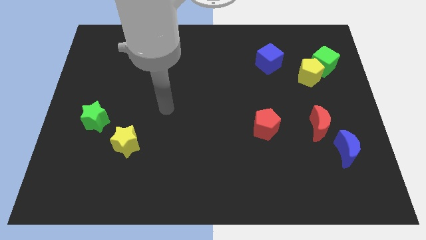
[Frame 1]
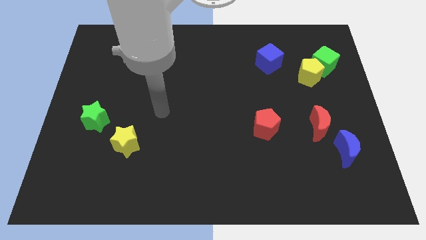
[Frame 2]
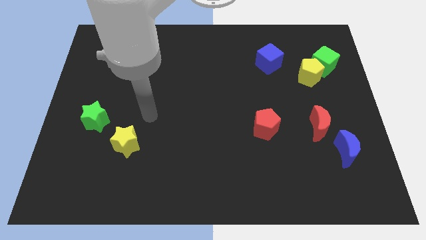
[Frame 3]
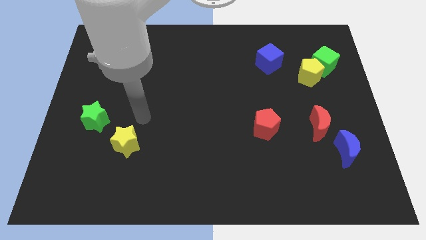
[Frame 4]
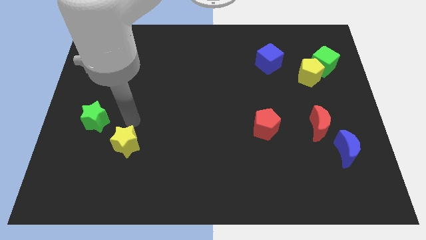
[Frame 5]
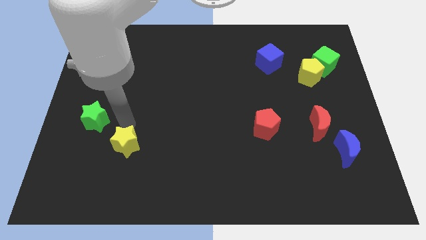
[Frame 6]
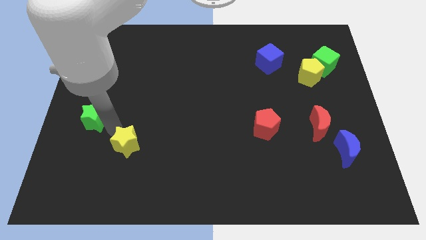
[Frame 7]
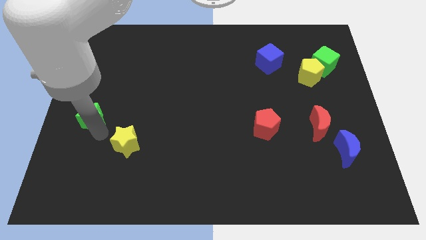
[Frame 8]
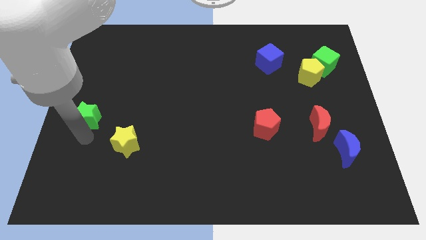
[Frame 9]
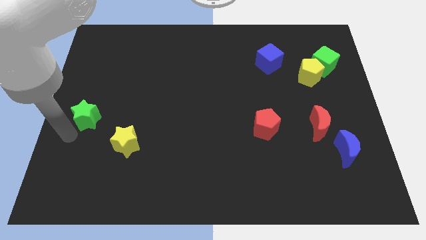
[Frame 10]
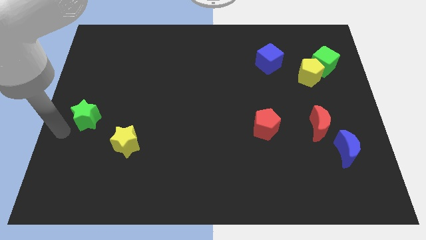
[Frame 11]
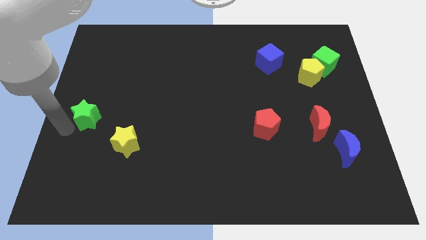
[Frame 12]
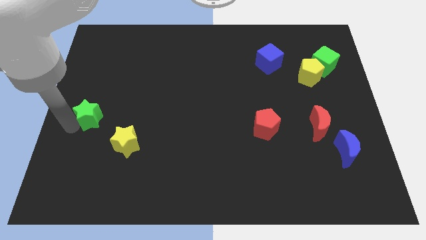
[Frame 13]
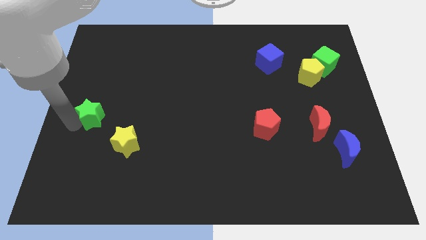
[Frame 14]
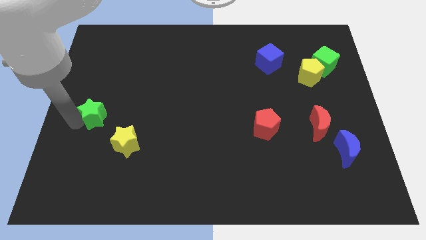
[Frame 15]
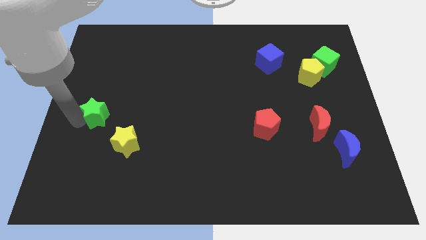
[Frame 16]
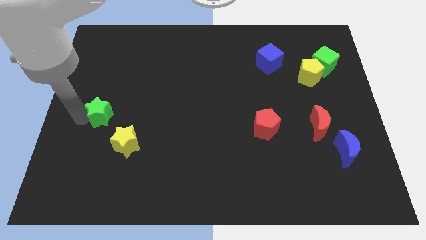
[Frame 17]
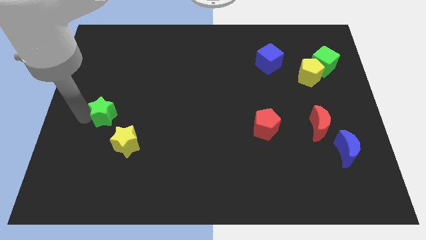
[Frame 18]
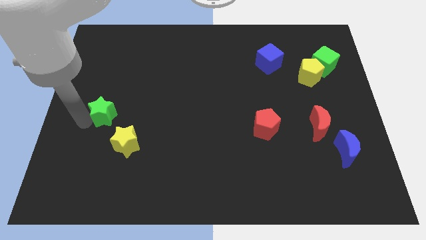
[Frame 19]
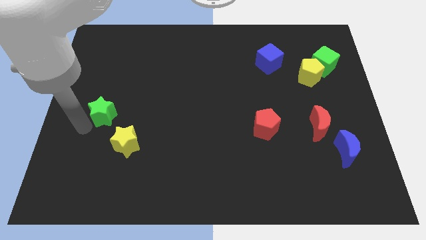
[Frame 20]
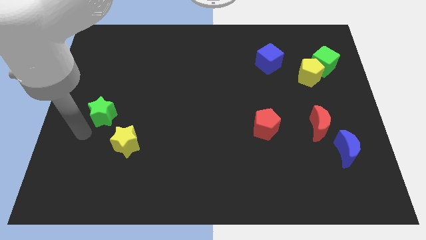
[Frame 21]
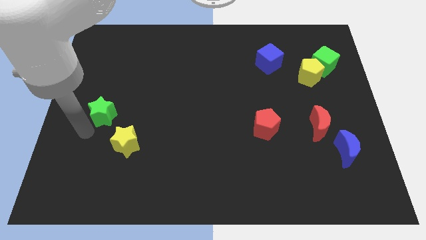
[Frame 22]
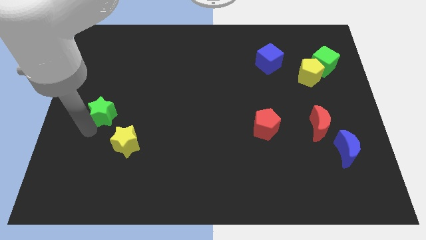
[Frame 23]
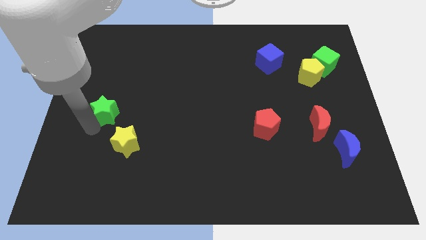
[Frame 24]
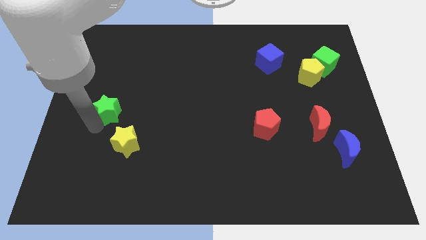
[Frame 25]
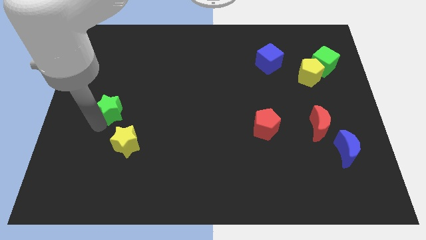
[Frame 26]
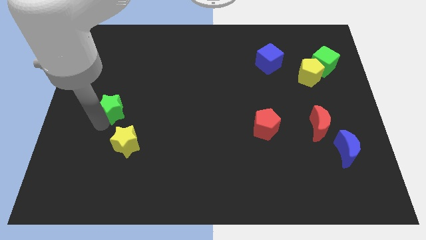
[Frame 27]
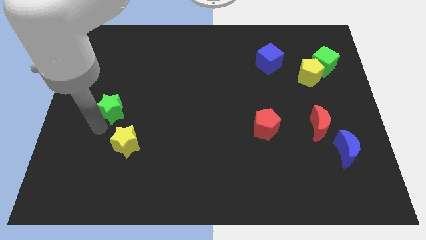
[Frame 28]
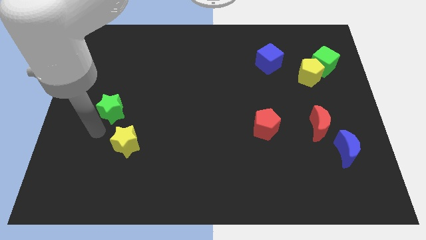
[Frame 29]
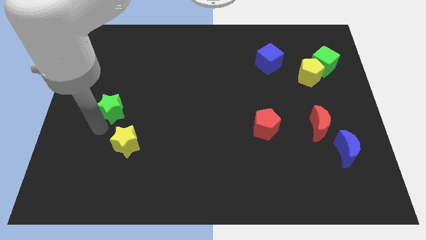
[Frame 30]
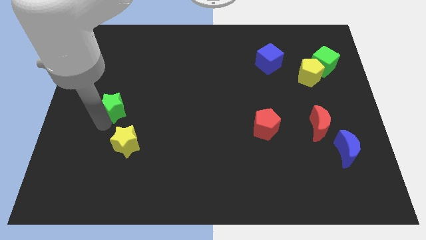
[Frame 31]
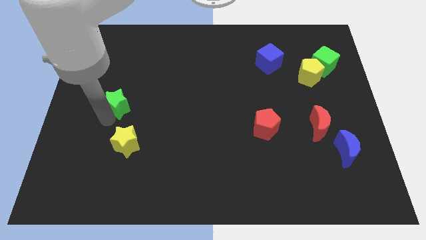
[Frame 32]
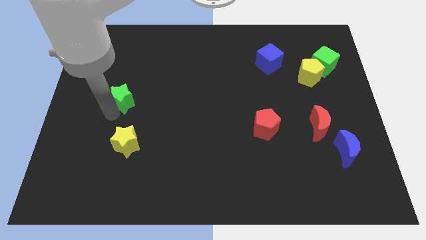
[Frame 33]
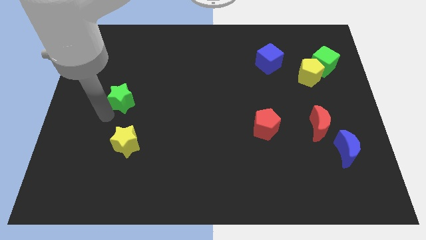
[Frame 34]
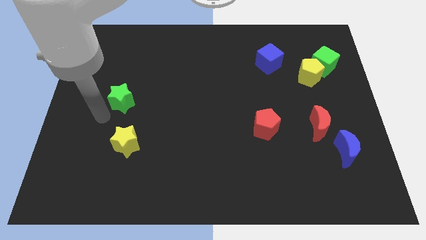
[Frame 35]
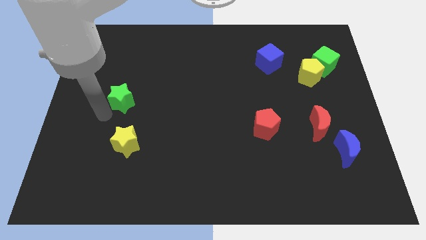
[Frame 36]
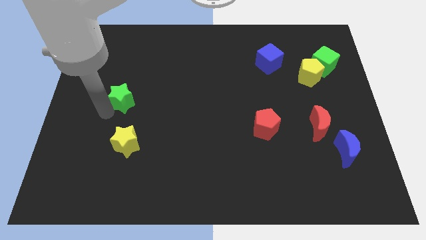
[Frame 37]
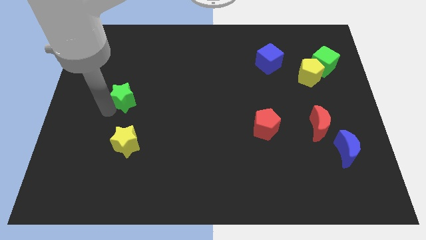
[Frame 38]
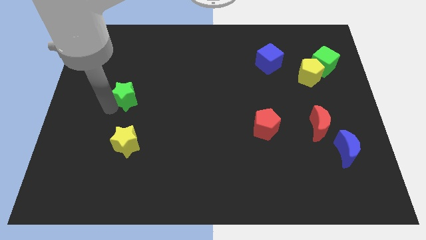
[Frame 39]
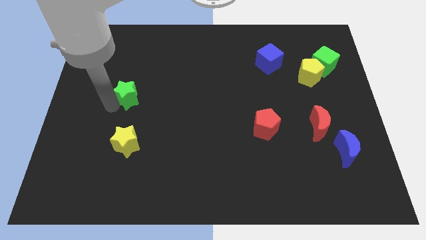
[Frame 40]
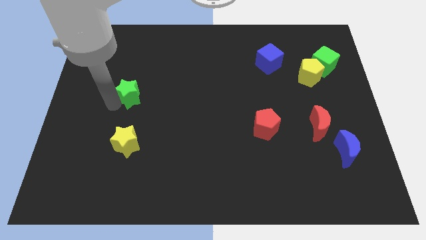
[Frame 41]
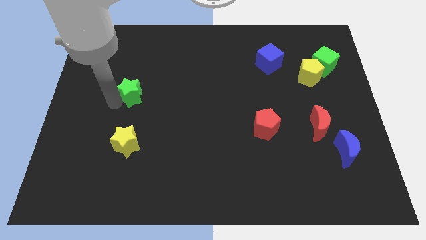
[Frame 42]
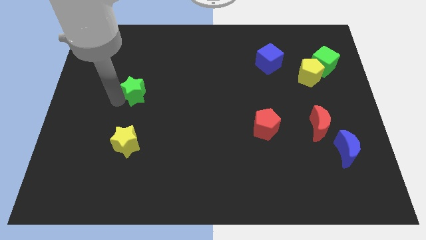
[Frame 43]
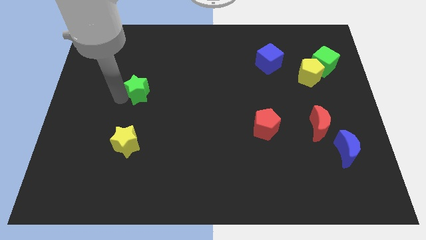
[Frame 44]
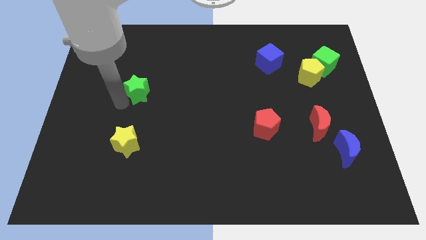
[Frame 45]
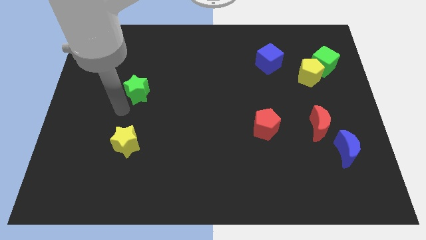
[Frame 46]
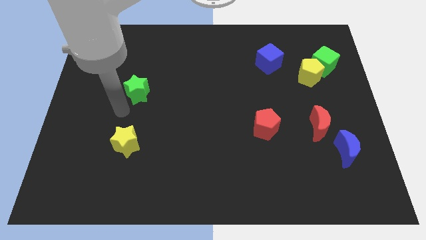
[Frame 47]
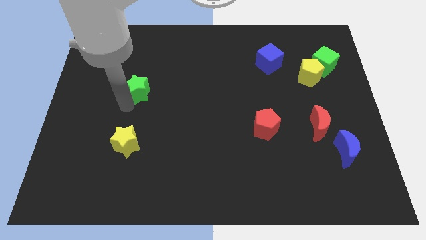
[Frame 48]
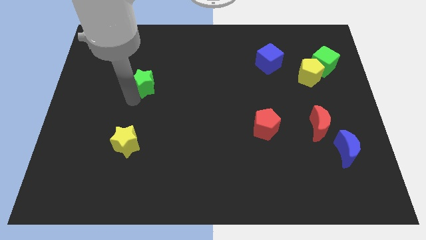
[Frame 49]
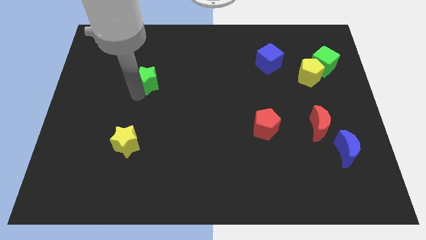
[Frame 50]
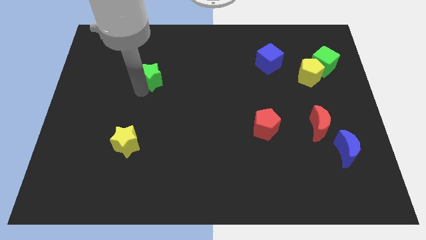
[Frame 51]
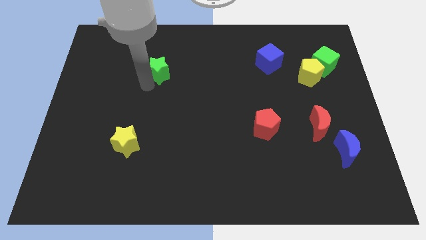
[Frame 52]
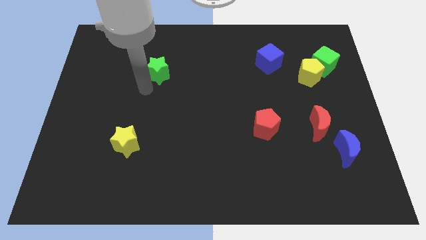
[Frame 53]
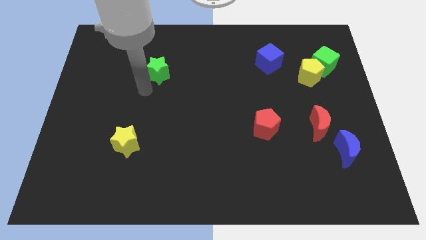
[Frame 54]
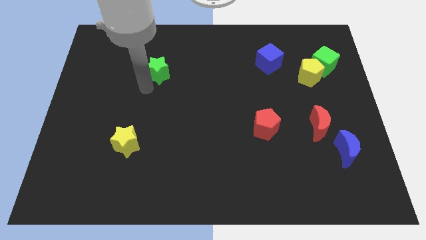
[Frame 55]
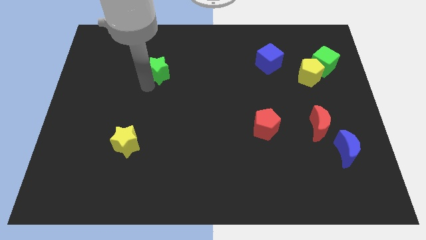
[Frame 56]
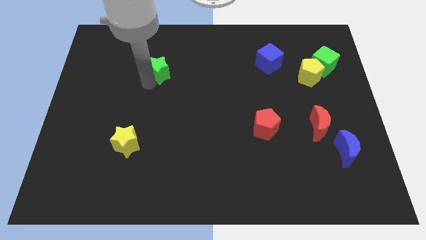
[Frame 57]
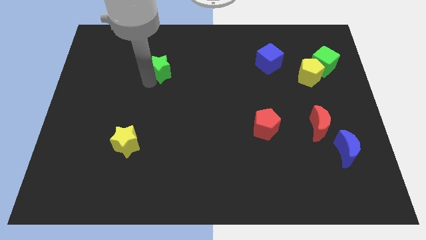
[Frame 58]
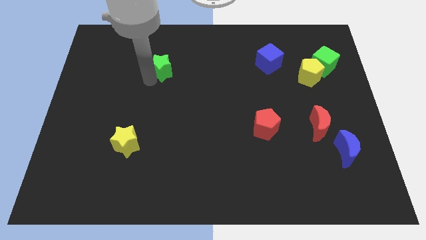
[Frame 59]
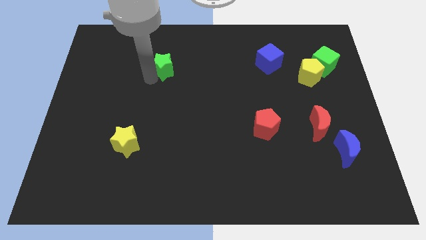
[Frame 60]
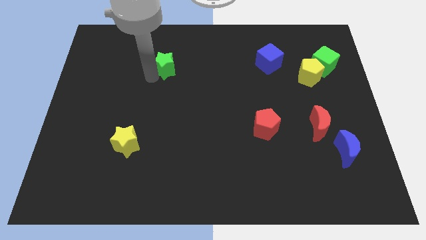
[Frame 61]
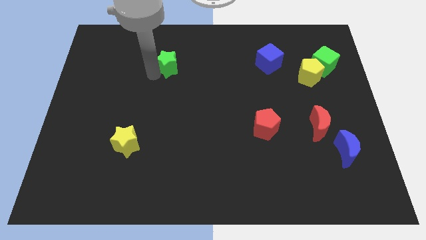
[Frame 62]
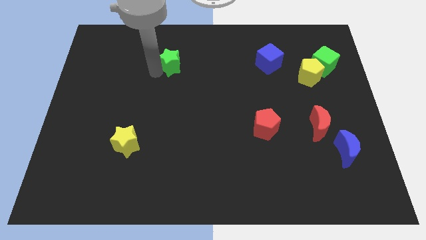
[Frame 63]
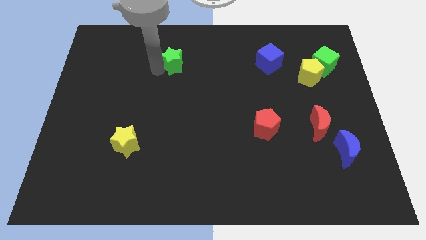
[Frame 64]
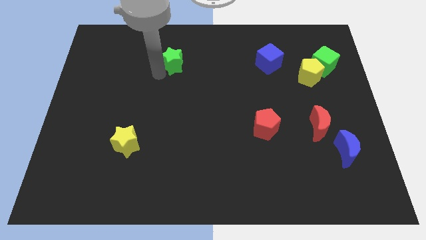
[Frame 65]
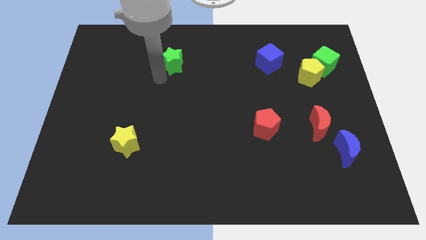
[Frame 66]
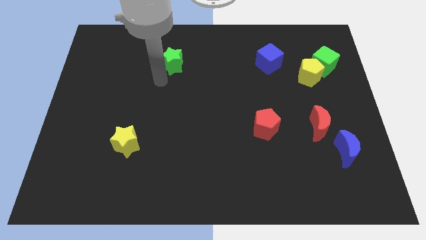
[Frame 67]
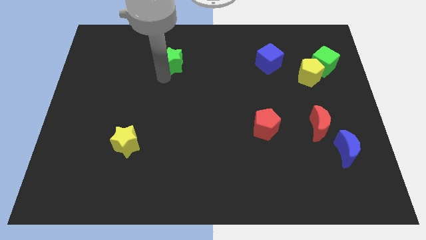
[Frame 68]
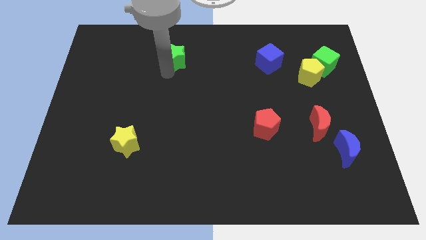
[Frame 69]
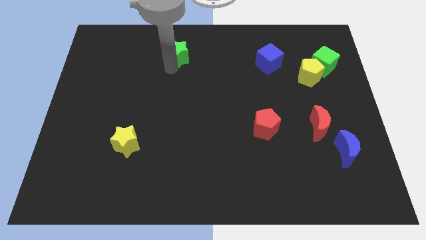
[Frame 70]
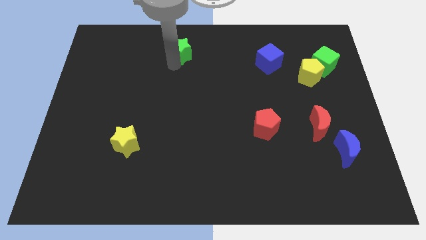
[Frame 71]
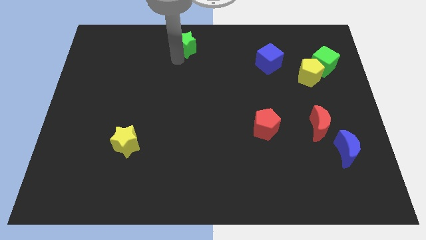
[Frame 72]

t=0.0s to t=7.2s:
move the green star to the top side

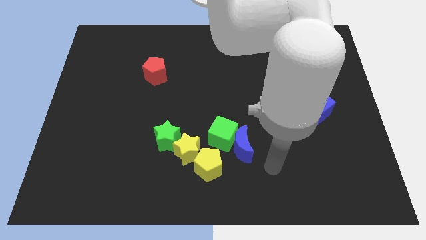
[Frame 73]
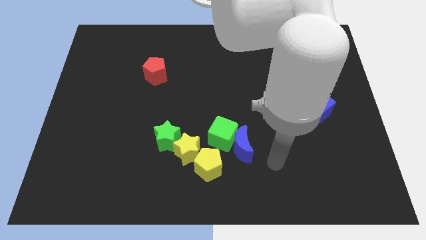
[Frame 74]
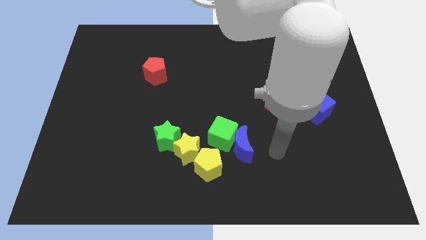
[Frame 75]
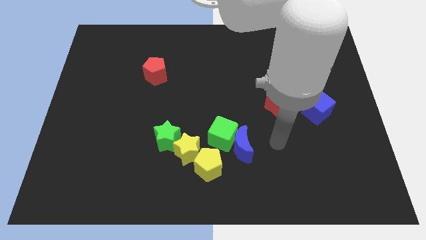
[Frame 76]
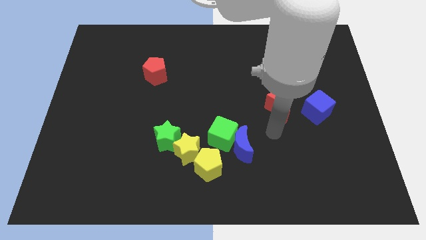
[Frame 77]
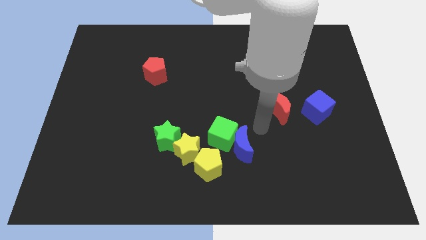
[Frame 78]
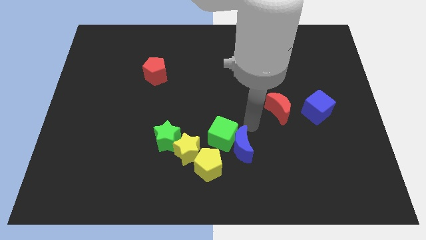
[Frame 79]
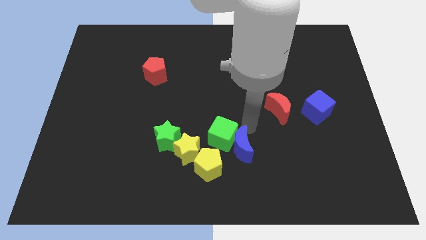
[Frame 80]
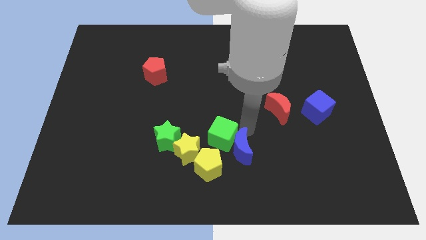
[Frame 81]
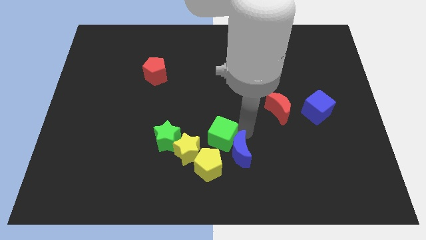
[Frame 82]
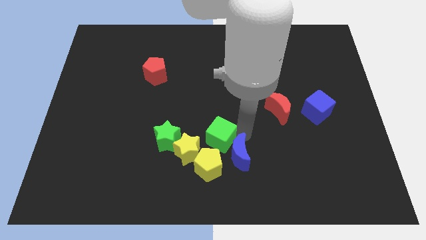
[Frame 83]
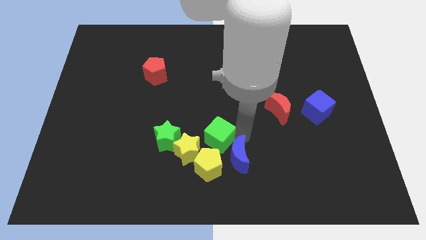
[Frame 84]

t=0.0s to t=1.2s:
move the blue moon to the bottom side
